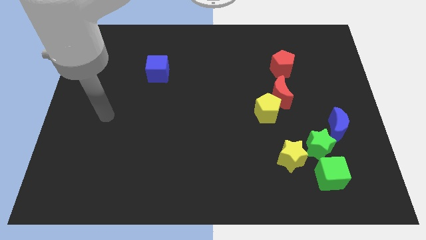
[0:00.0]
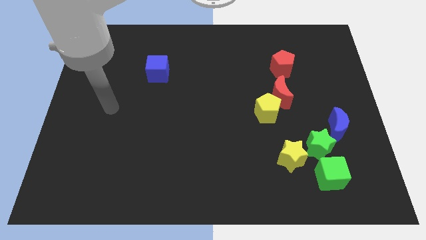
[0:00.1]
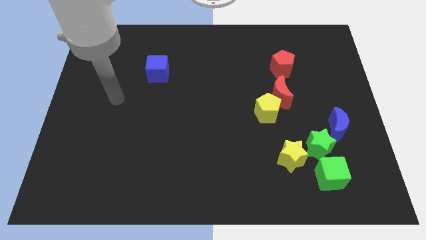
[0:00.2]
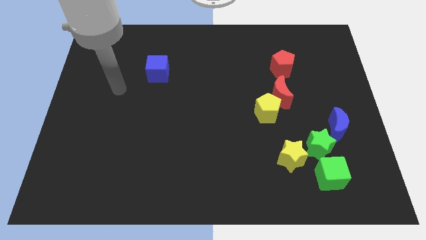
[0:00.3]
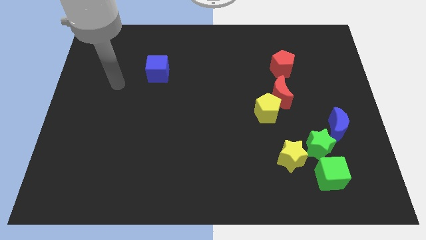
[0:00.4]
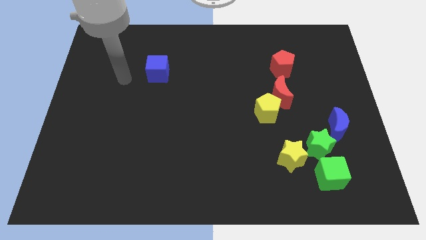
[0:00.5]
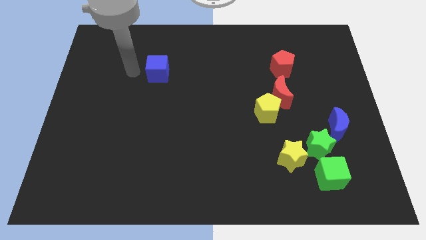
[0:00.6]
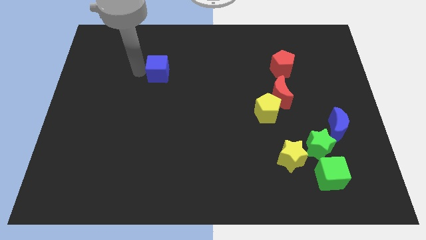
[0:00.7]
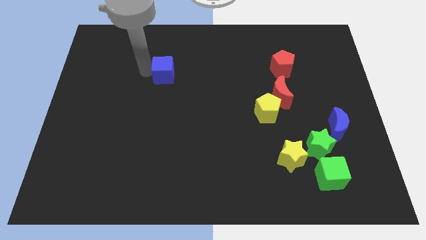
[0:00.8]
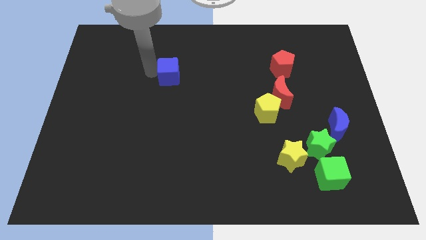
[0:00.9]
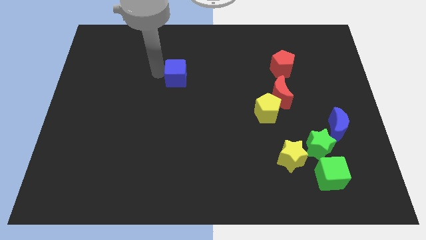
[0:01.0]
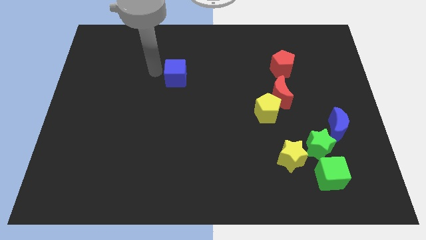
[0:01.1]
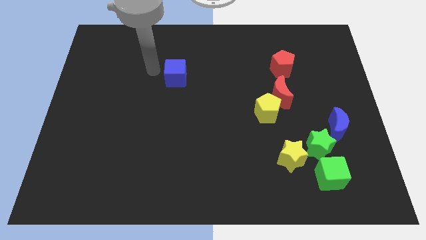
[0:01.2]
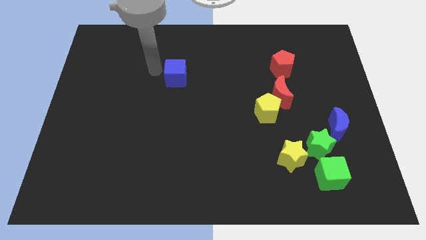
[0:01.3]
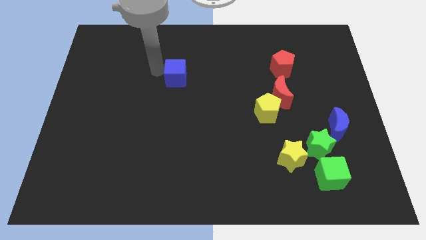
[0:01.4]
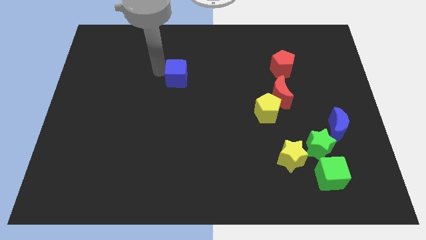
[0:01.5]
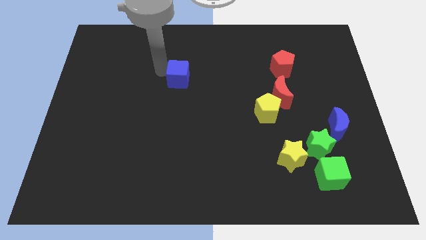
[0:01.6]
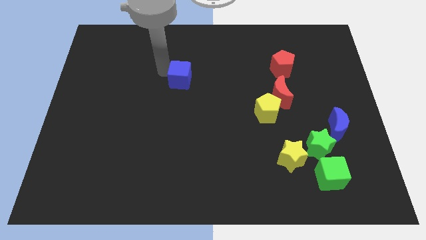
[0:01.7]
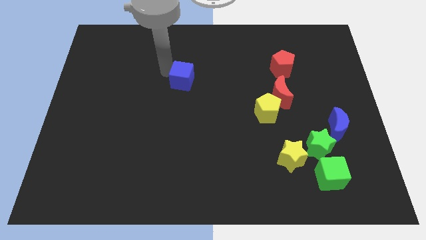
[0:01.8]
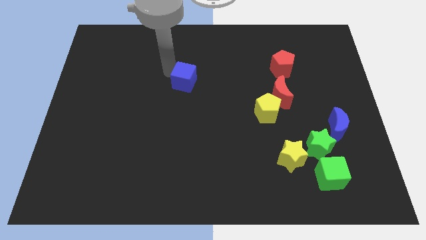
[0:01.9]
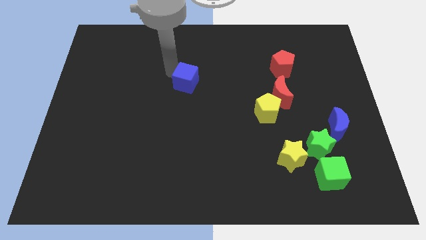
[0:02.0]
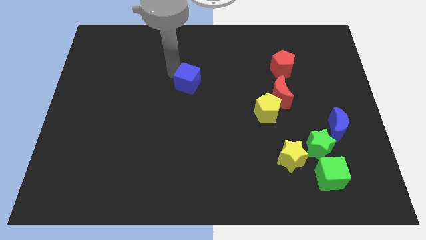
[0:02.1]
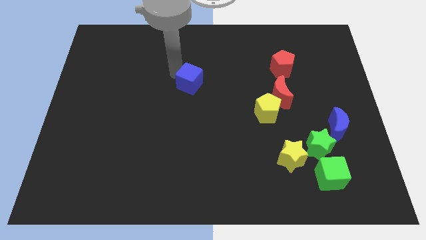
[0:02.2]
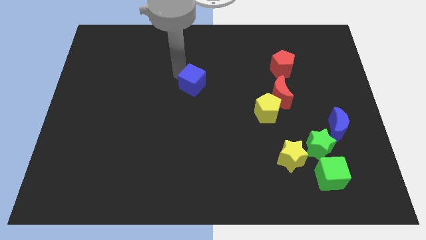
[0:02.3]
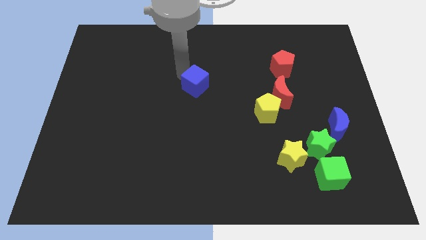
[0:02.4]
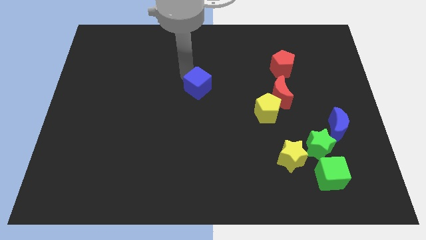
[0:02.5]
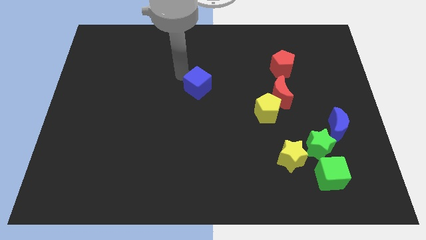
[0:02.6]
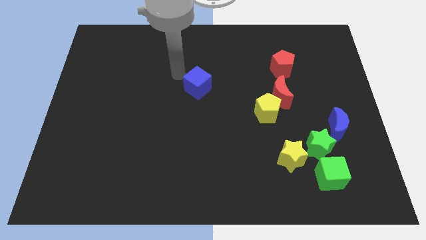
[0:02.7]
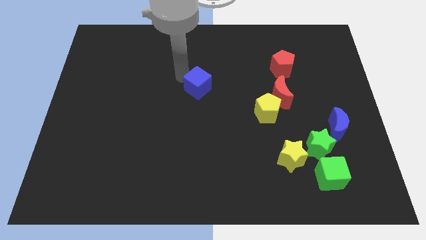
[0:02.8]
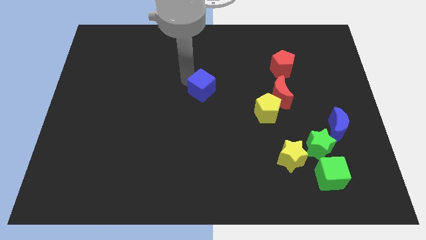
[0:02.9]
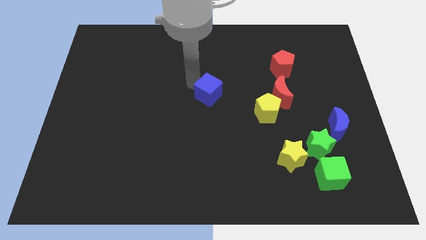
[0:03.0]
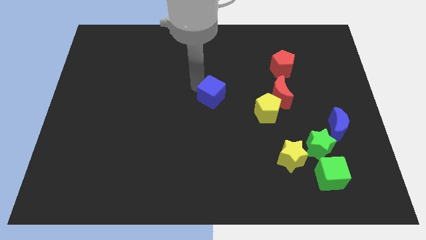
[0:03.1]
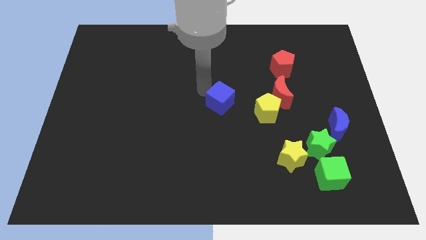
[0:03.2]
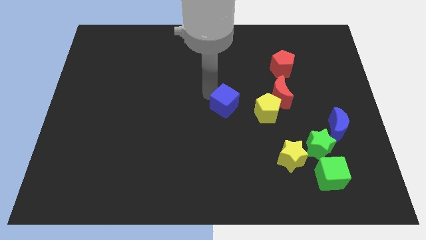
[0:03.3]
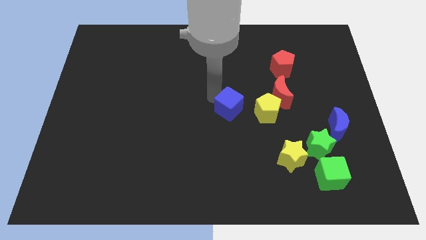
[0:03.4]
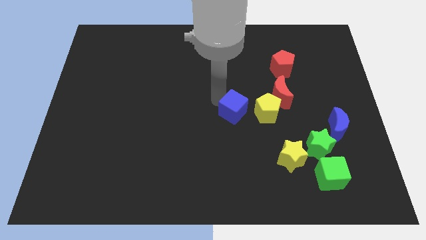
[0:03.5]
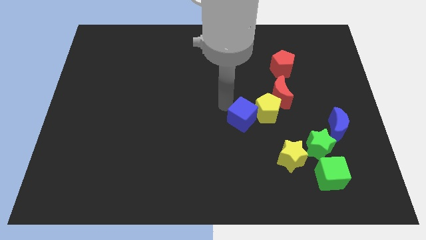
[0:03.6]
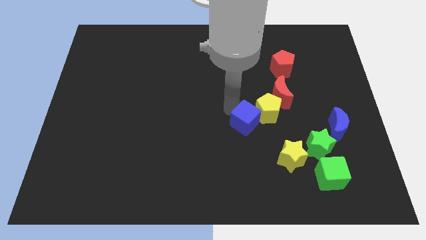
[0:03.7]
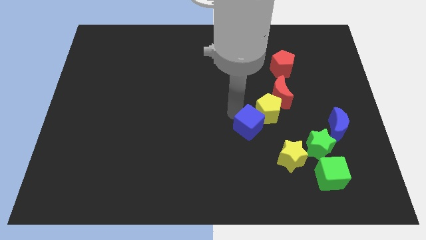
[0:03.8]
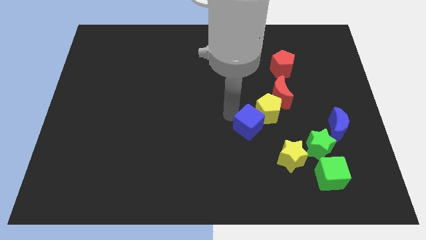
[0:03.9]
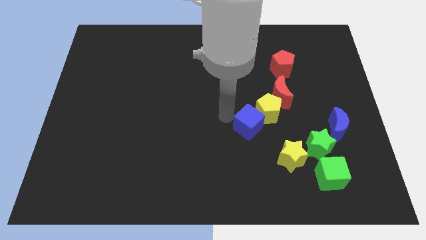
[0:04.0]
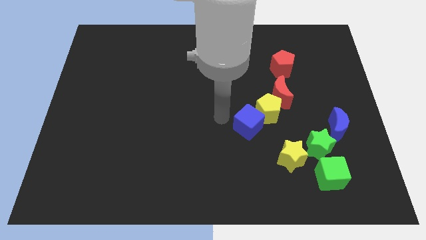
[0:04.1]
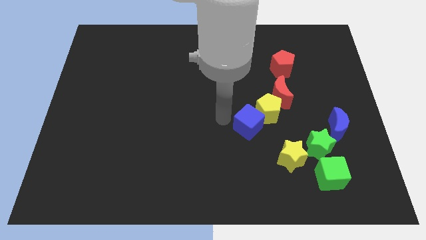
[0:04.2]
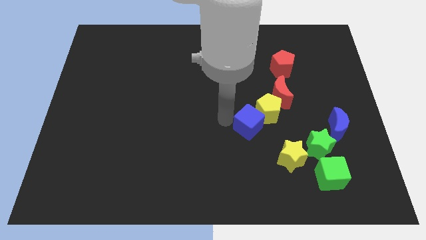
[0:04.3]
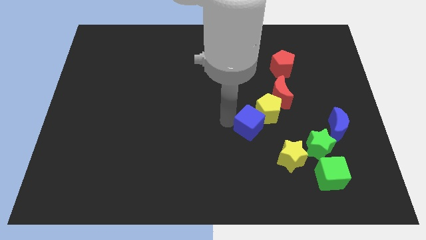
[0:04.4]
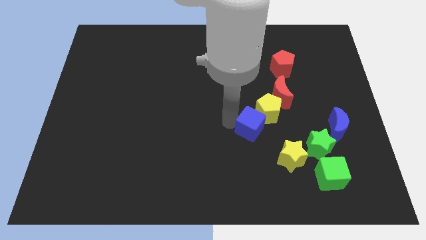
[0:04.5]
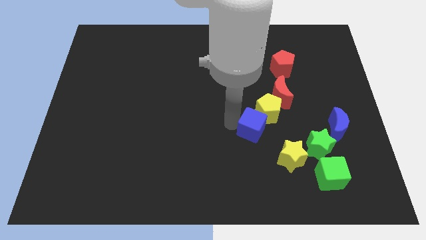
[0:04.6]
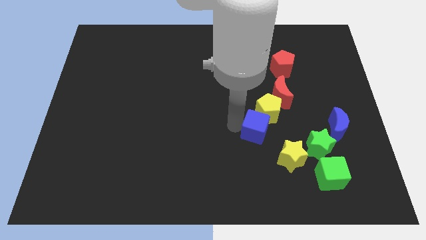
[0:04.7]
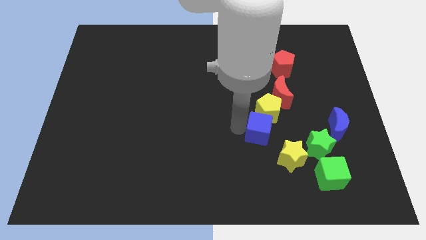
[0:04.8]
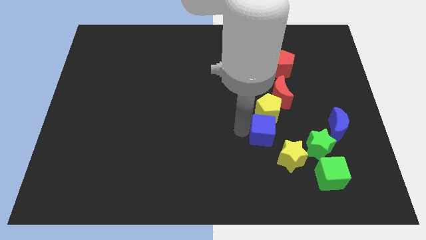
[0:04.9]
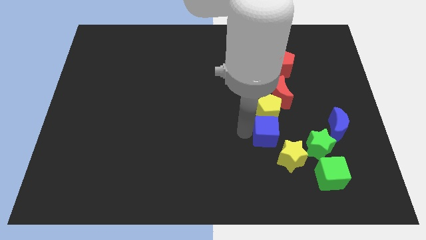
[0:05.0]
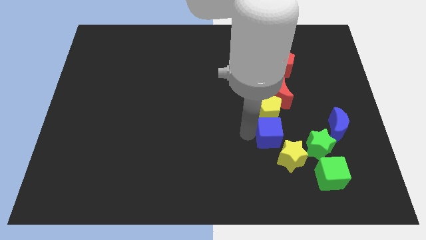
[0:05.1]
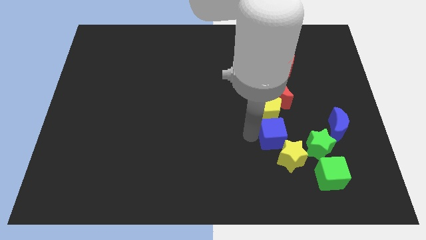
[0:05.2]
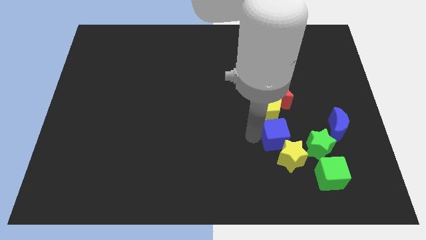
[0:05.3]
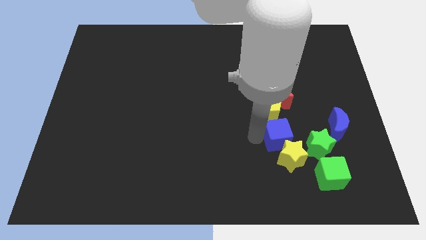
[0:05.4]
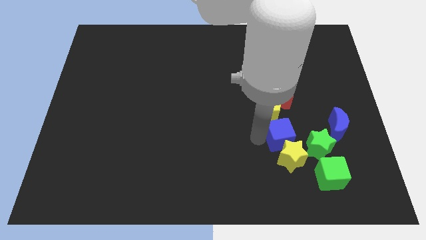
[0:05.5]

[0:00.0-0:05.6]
slide the blue cube diagonally up and to the right of the yellow star

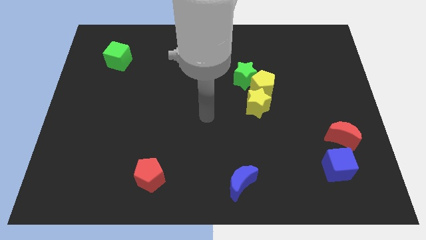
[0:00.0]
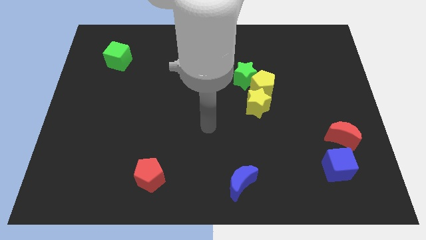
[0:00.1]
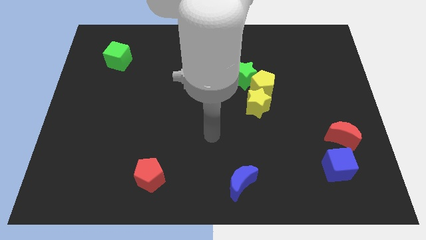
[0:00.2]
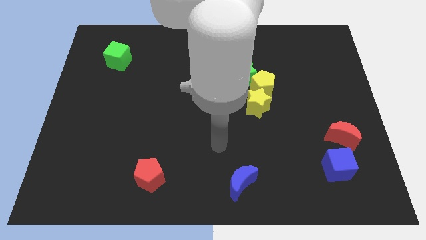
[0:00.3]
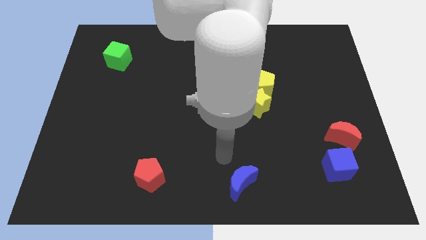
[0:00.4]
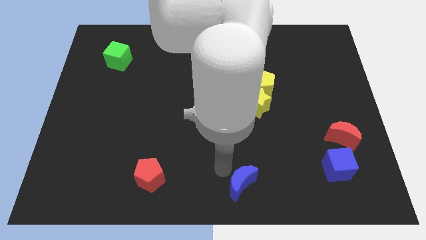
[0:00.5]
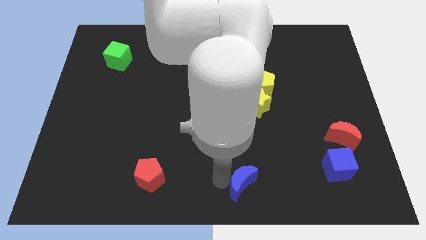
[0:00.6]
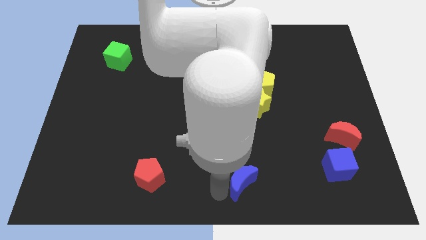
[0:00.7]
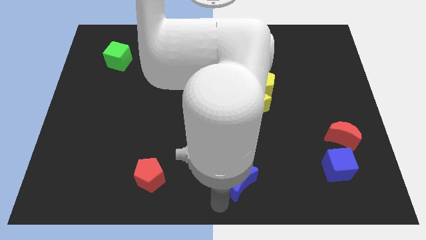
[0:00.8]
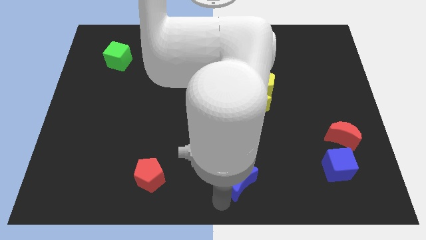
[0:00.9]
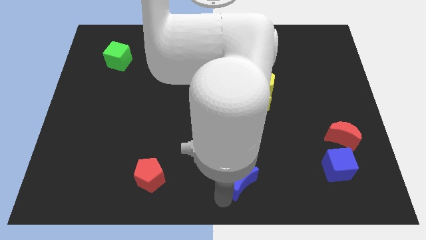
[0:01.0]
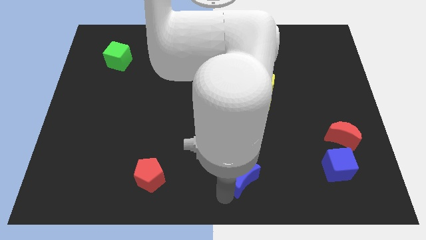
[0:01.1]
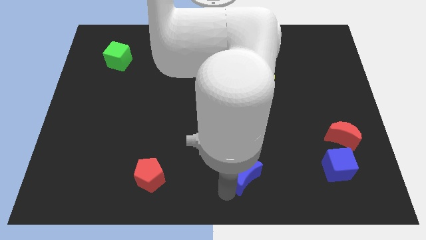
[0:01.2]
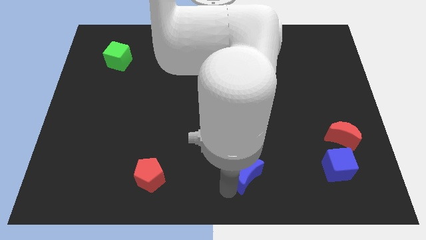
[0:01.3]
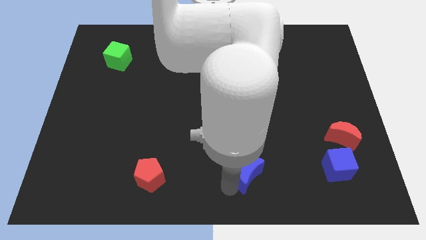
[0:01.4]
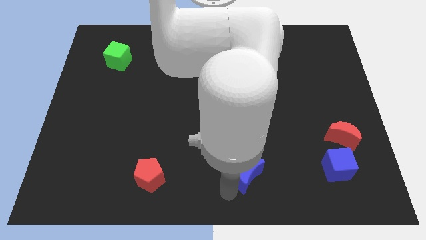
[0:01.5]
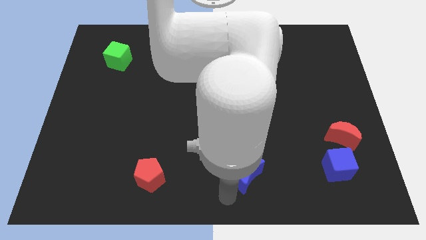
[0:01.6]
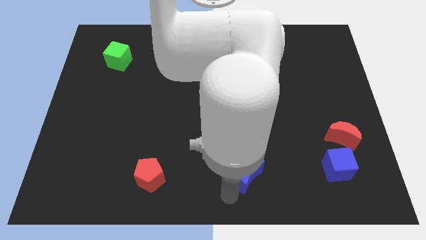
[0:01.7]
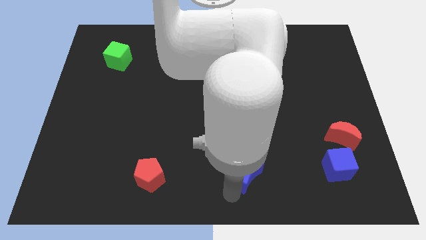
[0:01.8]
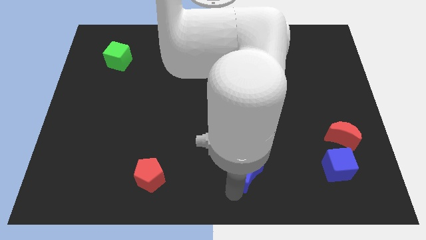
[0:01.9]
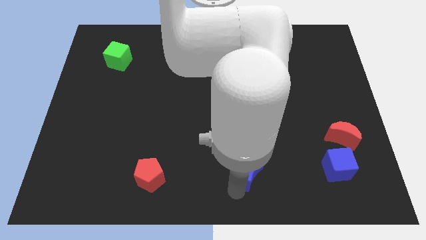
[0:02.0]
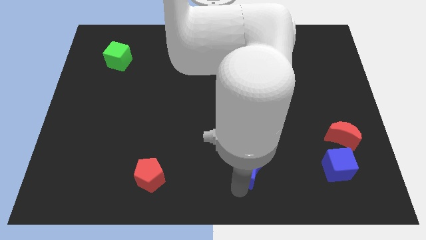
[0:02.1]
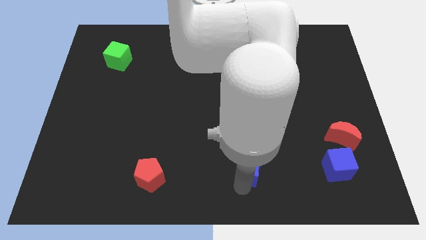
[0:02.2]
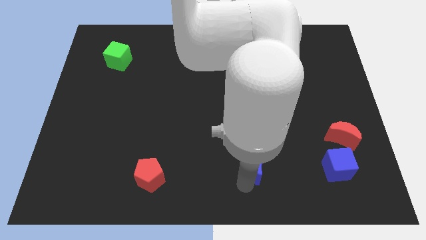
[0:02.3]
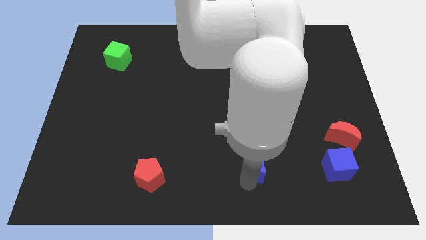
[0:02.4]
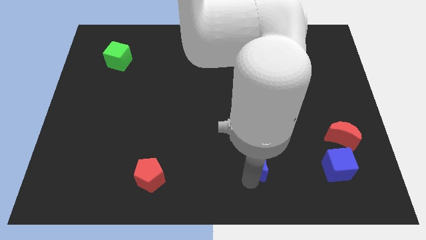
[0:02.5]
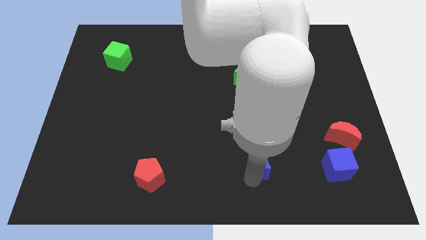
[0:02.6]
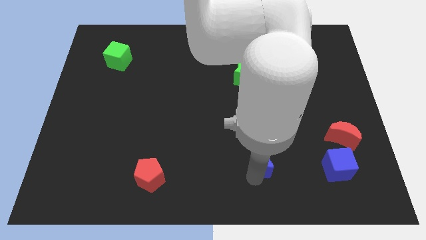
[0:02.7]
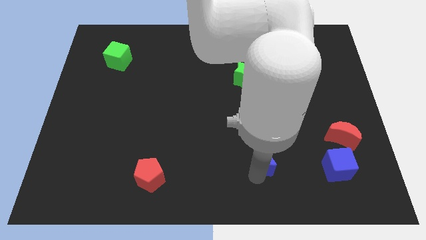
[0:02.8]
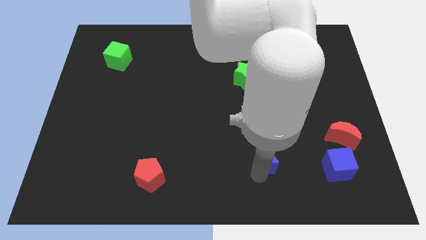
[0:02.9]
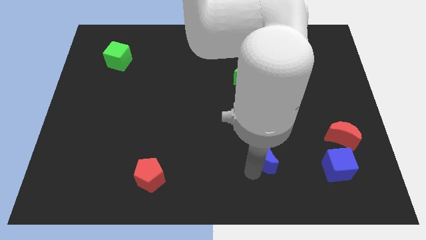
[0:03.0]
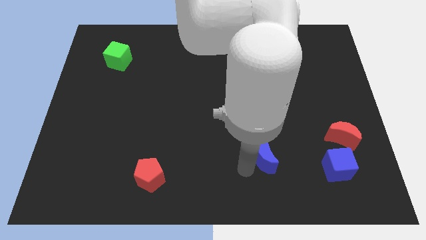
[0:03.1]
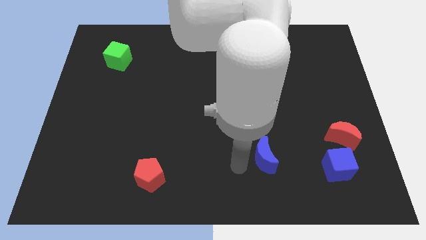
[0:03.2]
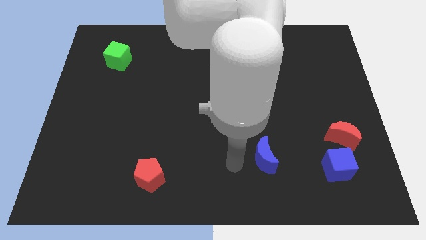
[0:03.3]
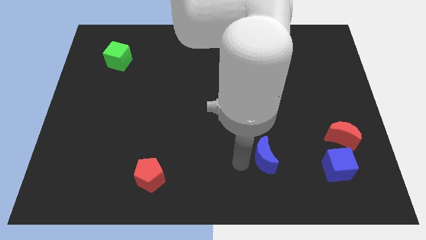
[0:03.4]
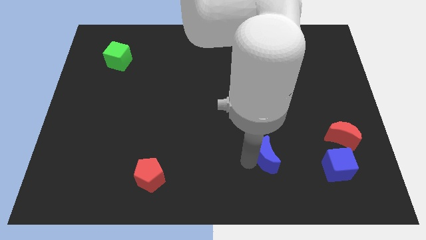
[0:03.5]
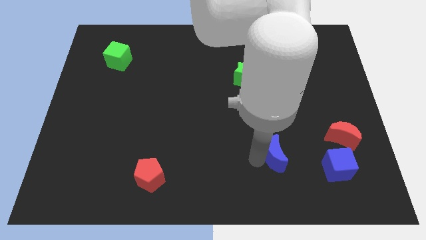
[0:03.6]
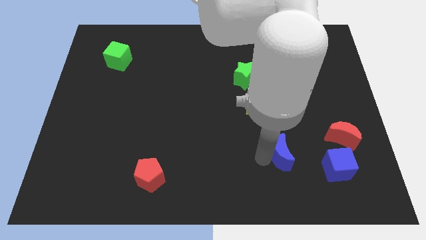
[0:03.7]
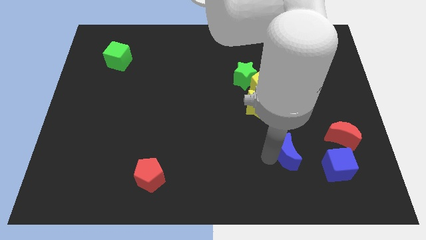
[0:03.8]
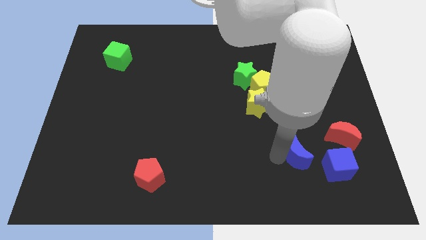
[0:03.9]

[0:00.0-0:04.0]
put the blue moon to the top left side of the blue cube
